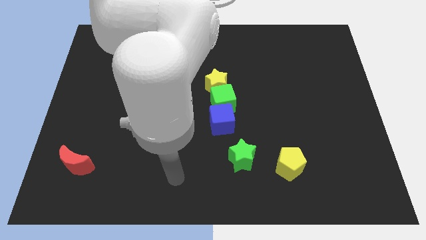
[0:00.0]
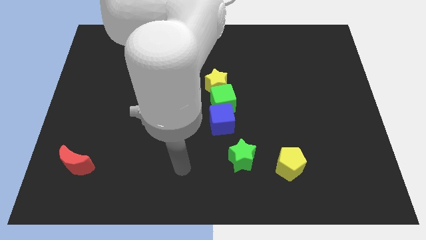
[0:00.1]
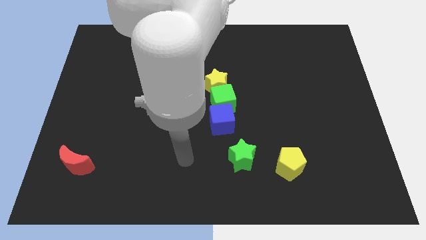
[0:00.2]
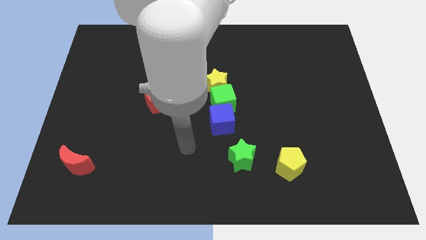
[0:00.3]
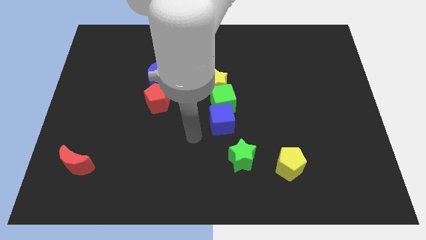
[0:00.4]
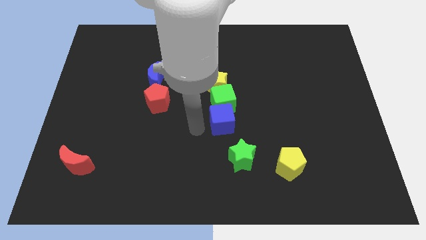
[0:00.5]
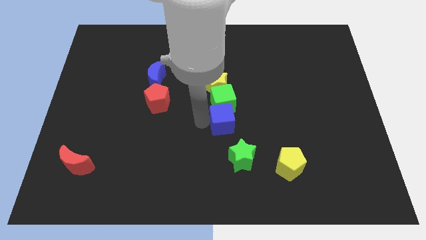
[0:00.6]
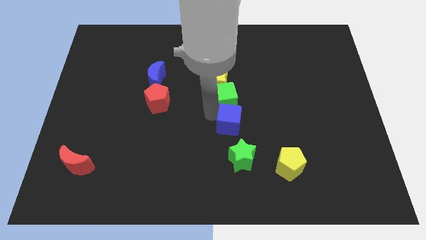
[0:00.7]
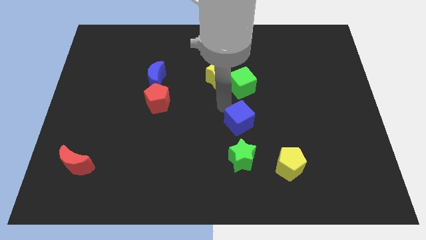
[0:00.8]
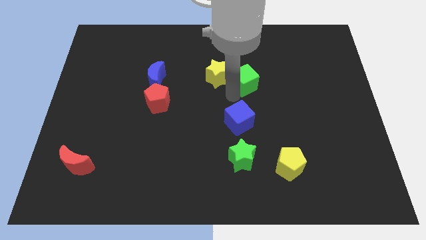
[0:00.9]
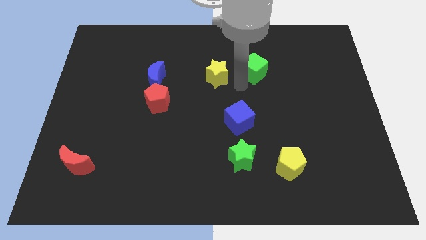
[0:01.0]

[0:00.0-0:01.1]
separate the yellow star from the green cube

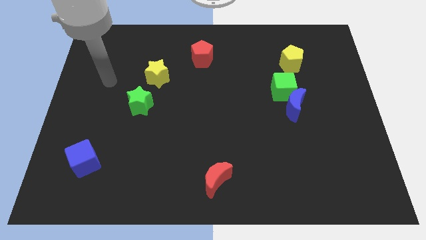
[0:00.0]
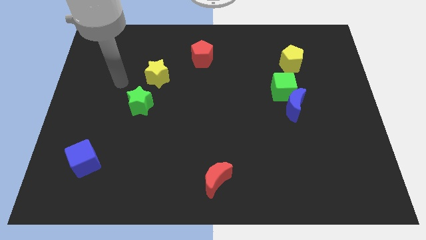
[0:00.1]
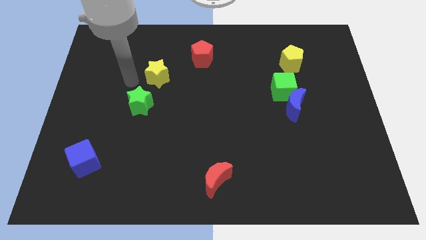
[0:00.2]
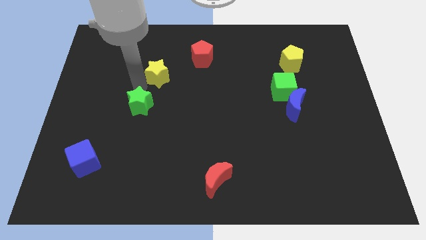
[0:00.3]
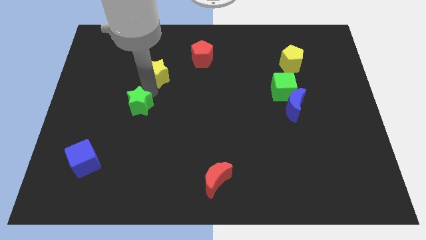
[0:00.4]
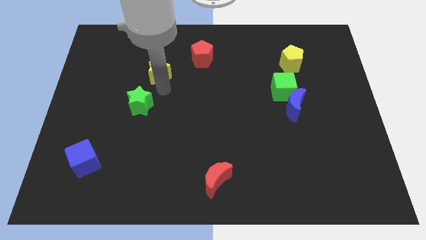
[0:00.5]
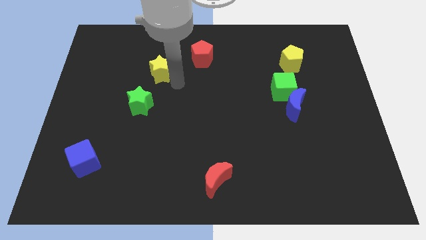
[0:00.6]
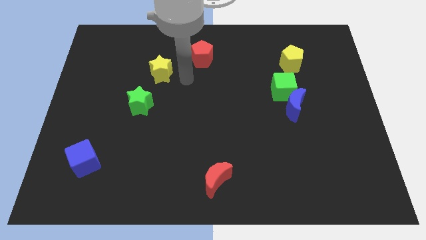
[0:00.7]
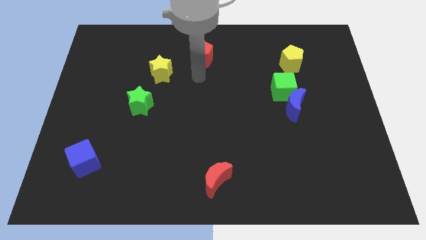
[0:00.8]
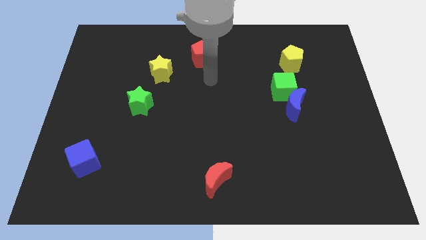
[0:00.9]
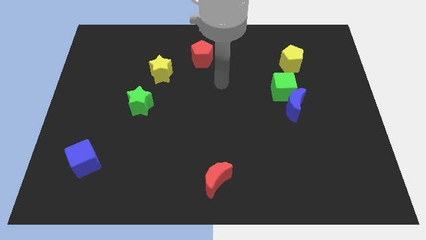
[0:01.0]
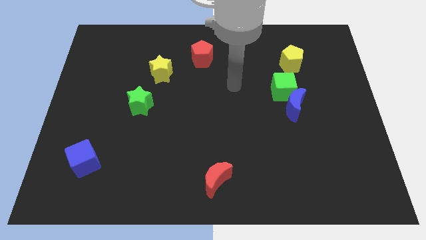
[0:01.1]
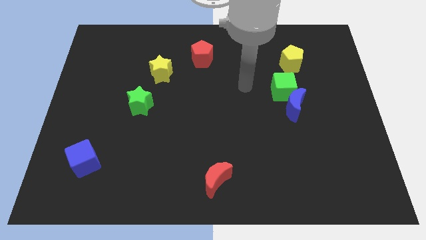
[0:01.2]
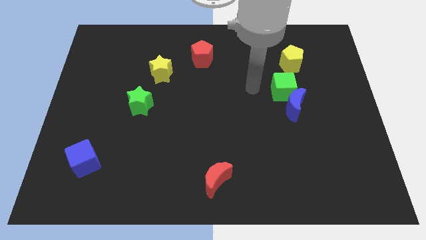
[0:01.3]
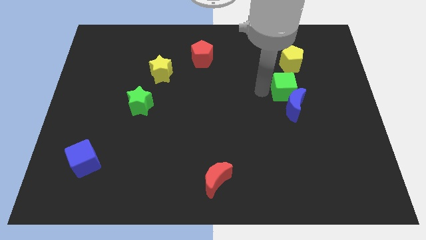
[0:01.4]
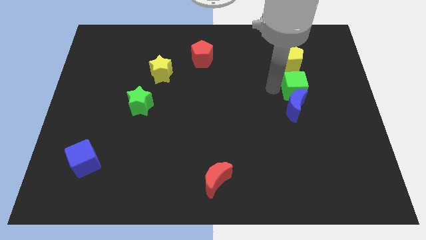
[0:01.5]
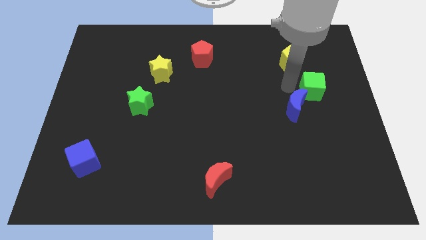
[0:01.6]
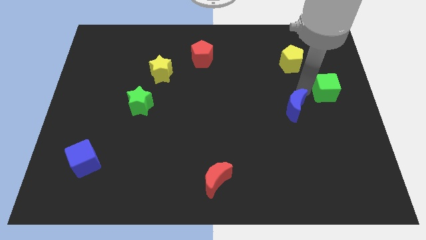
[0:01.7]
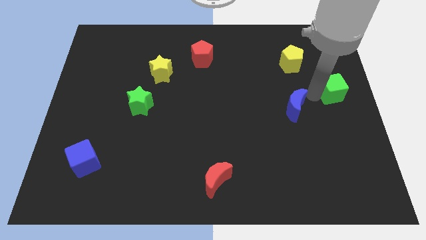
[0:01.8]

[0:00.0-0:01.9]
move the blue moon away from the green cube

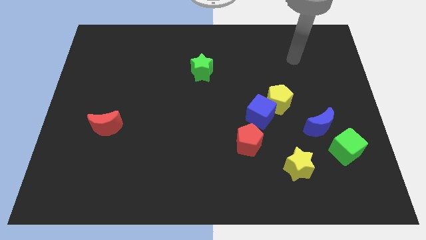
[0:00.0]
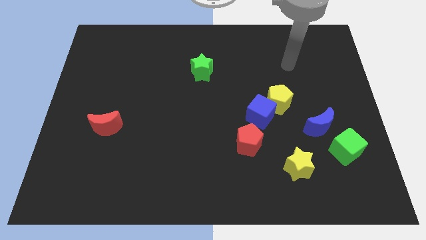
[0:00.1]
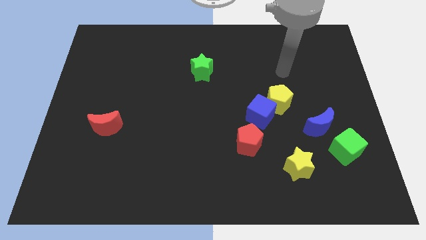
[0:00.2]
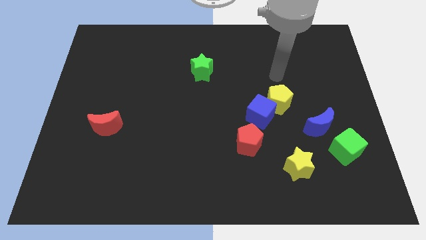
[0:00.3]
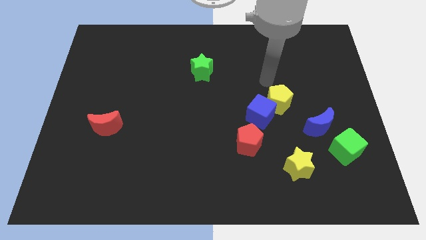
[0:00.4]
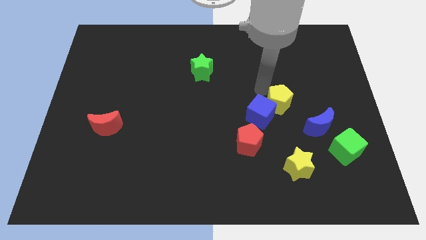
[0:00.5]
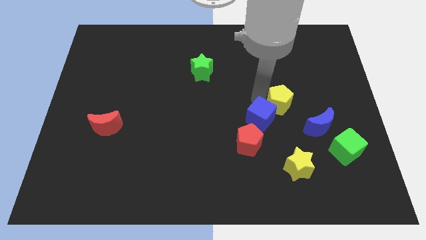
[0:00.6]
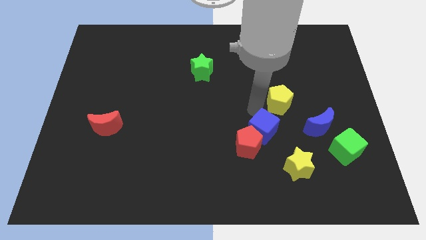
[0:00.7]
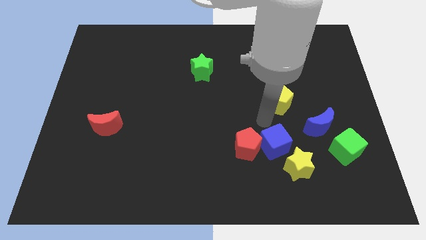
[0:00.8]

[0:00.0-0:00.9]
separate the yellow pentagon from the blue cube

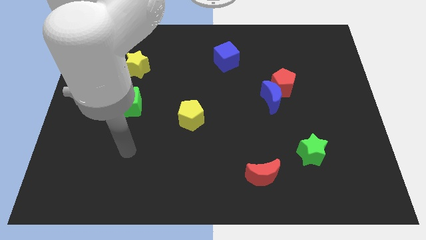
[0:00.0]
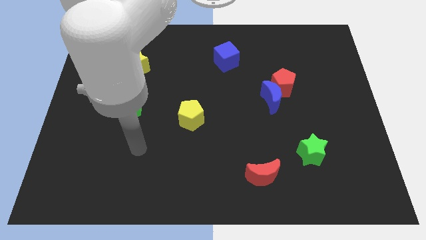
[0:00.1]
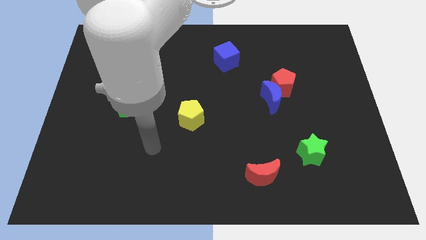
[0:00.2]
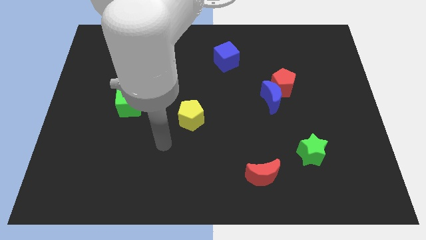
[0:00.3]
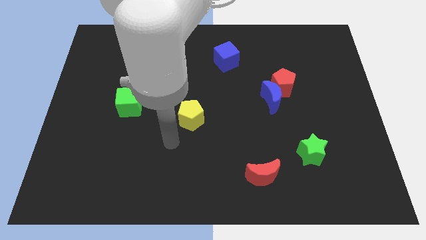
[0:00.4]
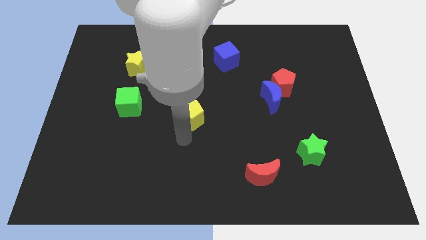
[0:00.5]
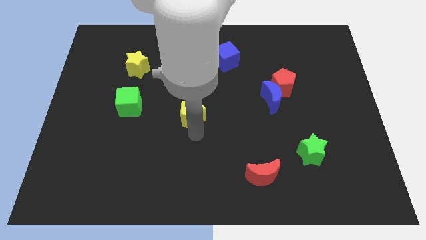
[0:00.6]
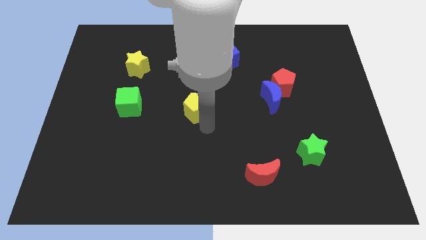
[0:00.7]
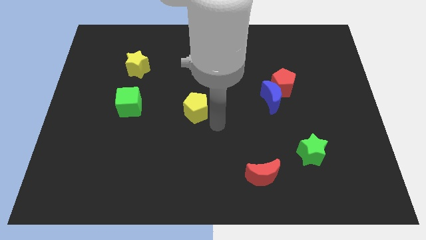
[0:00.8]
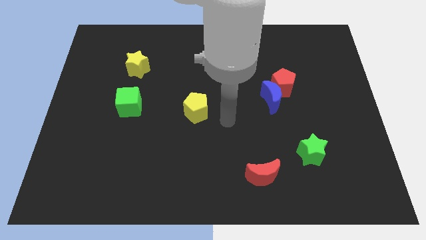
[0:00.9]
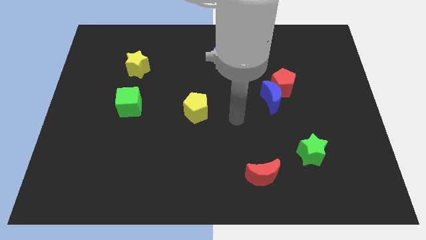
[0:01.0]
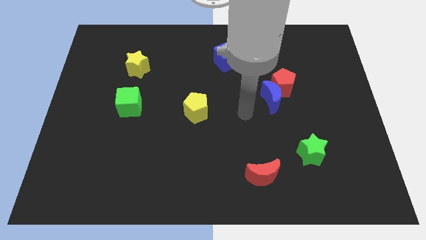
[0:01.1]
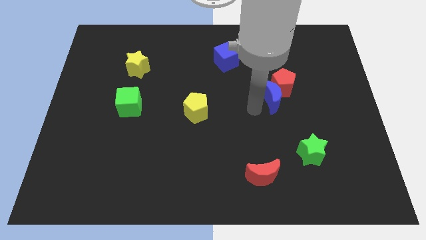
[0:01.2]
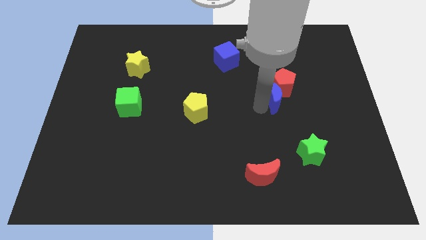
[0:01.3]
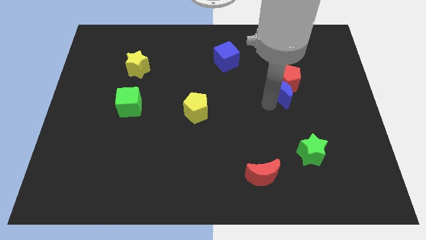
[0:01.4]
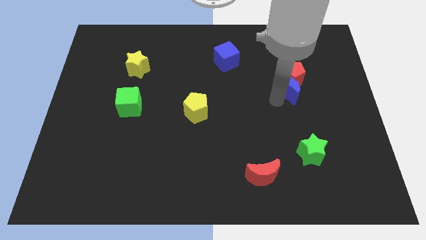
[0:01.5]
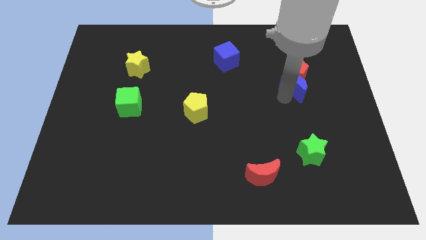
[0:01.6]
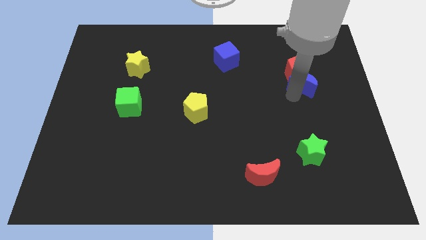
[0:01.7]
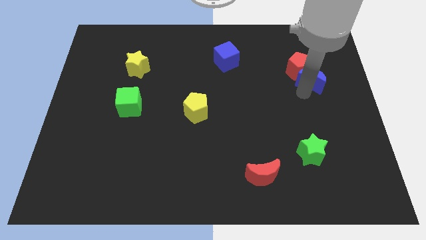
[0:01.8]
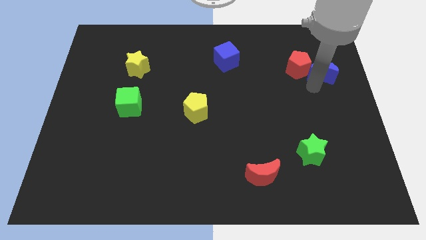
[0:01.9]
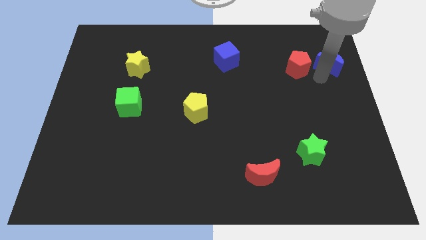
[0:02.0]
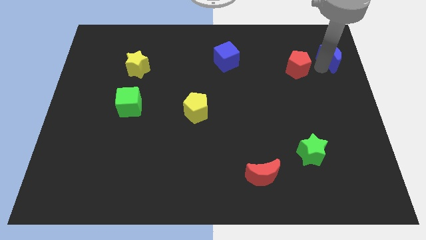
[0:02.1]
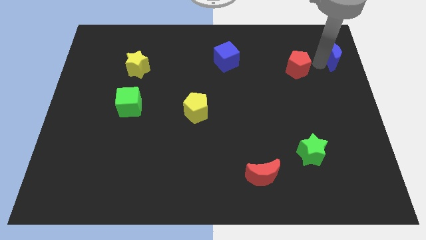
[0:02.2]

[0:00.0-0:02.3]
separate the red pentagon from the blue moon

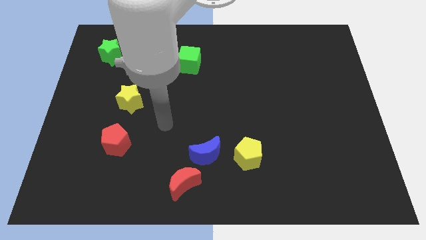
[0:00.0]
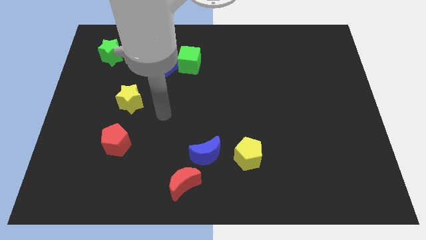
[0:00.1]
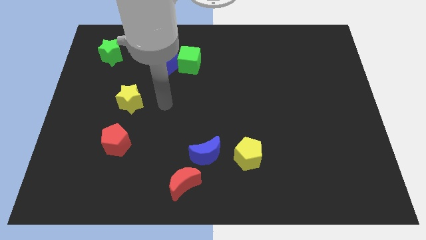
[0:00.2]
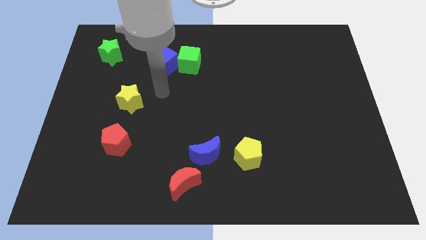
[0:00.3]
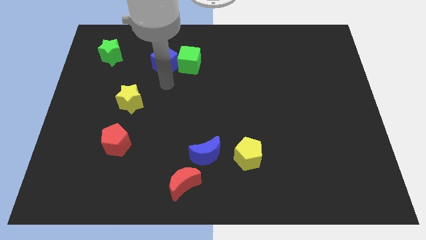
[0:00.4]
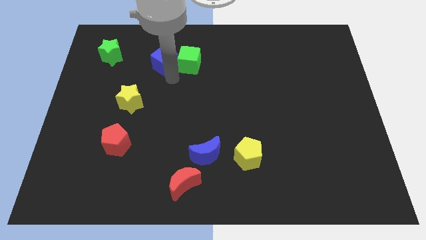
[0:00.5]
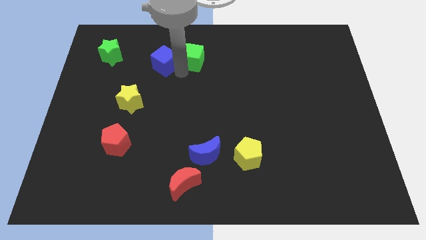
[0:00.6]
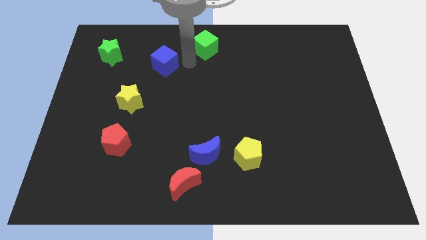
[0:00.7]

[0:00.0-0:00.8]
separate the blue cube from the green cube

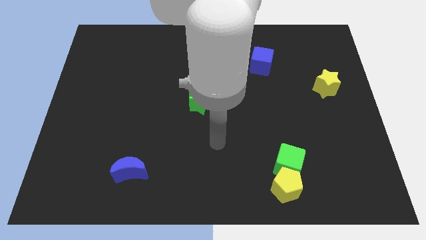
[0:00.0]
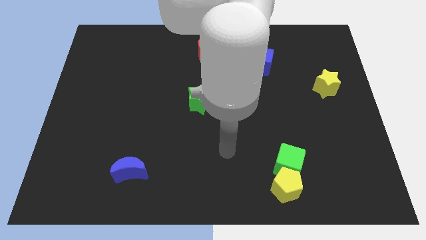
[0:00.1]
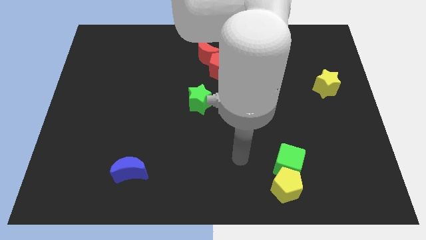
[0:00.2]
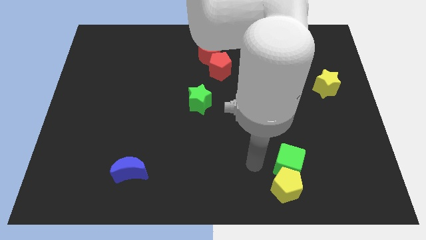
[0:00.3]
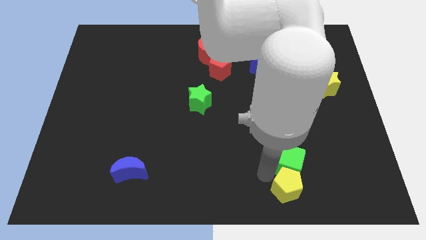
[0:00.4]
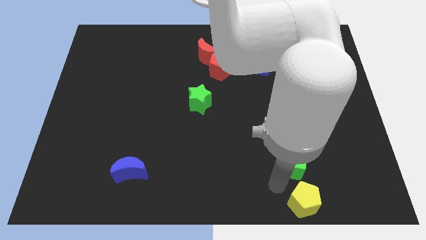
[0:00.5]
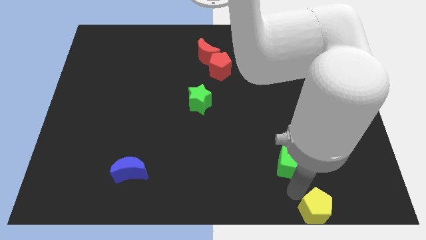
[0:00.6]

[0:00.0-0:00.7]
pull the green cube apart from the yellow pentagon

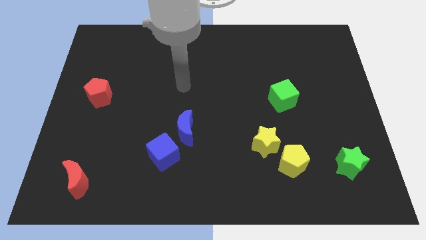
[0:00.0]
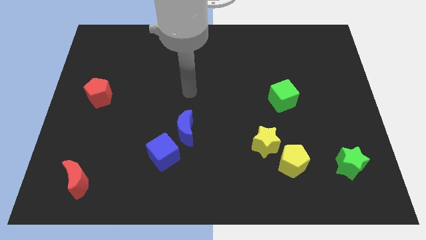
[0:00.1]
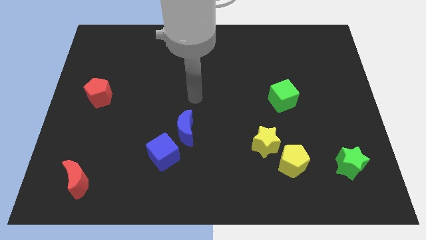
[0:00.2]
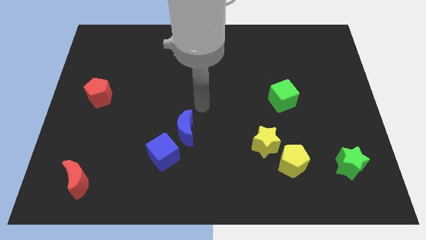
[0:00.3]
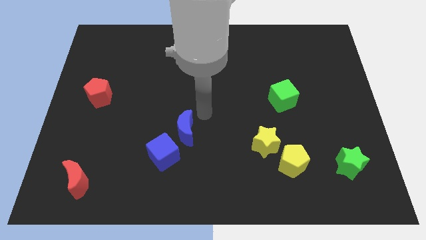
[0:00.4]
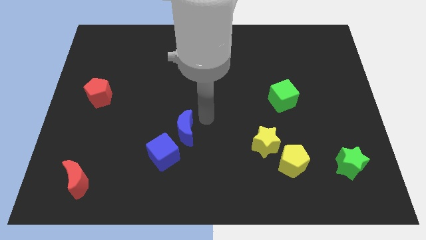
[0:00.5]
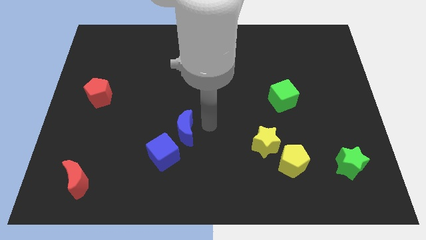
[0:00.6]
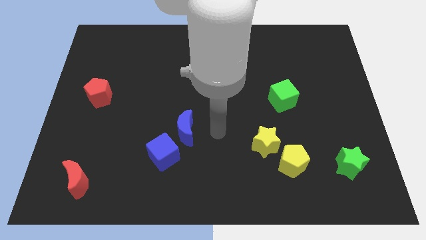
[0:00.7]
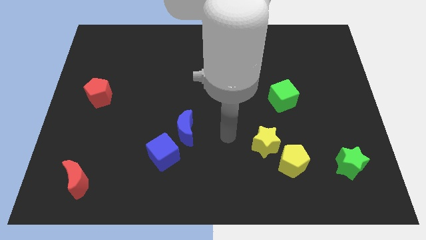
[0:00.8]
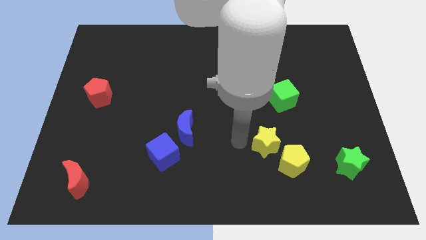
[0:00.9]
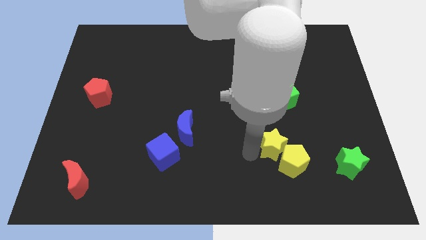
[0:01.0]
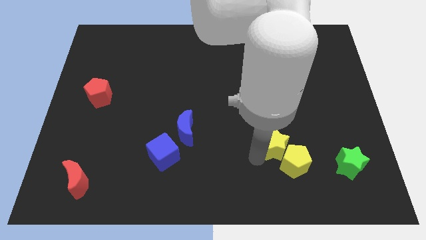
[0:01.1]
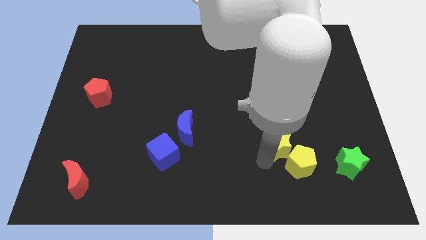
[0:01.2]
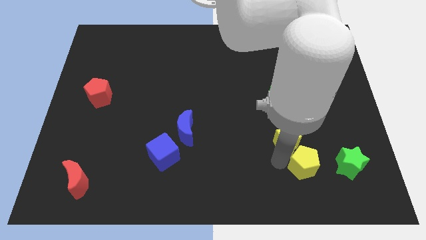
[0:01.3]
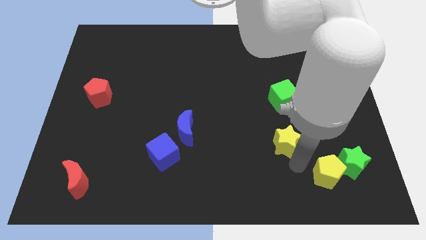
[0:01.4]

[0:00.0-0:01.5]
move the yellow star away from the yellow pentagon

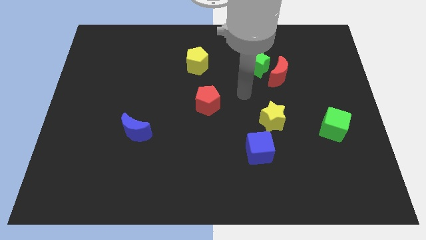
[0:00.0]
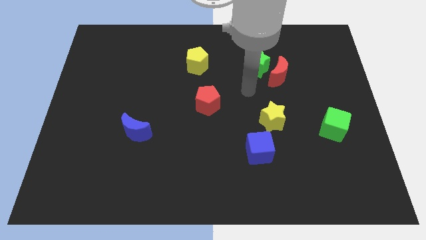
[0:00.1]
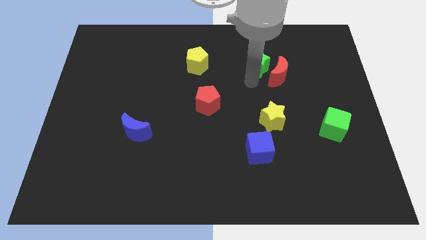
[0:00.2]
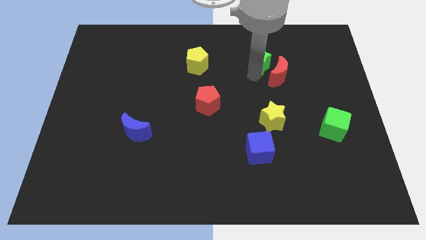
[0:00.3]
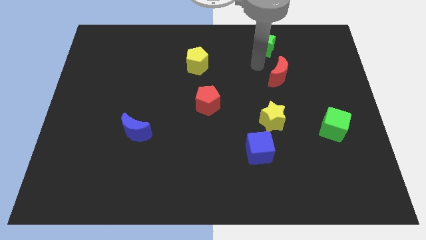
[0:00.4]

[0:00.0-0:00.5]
separate the red moon from the green star
